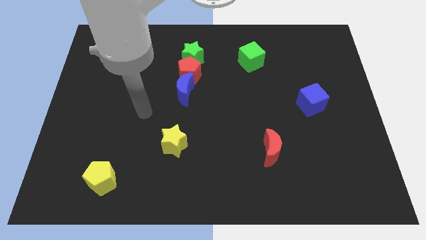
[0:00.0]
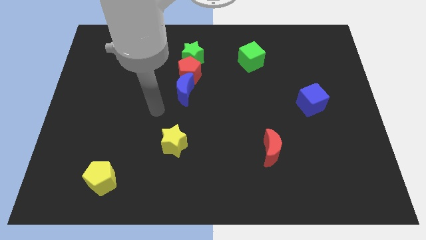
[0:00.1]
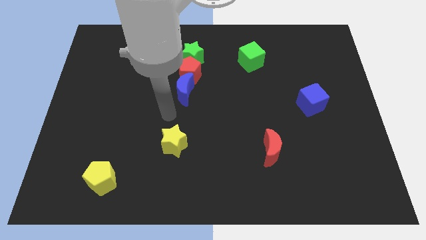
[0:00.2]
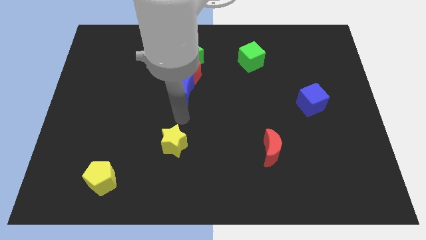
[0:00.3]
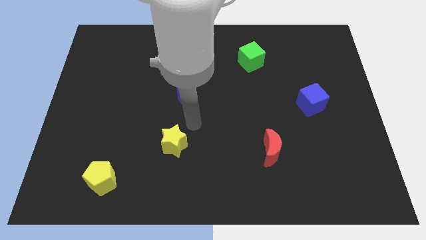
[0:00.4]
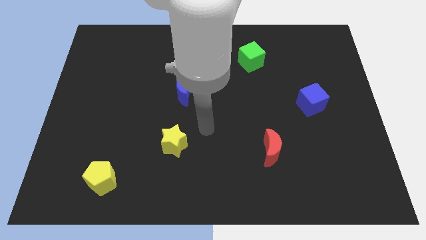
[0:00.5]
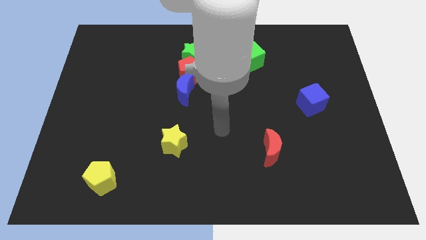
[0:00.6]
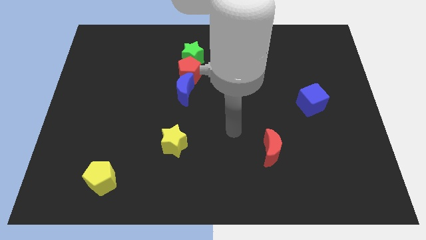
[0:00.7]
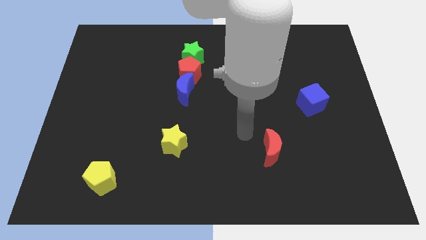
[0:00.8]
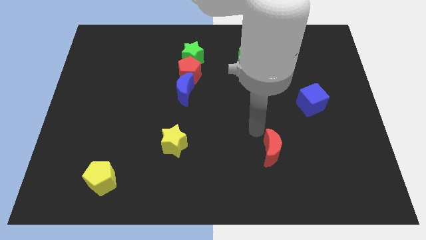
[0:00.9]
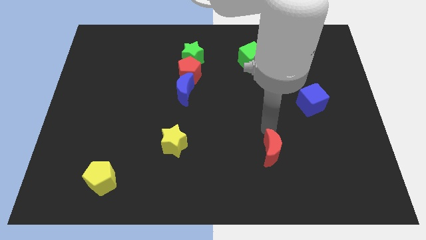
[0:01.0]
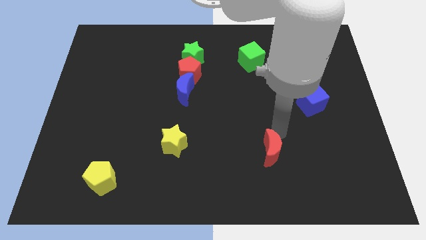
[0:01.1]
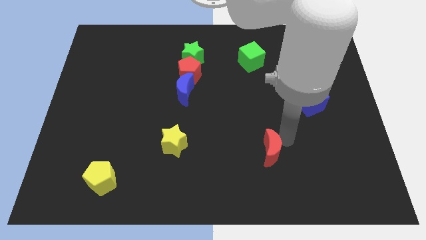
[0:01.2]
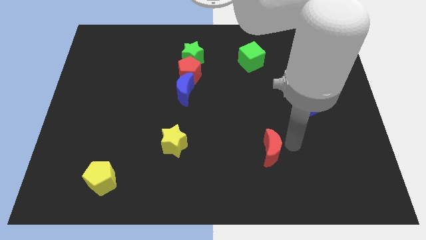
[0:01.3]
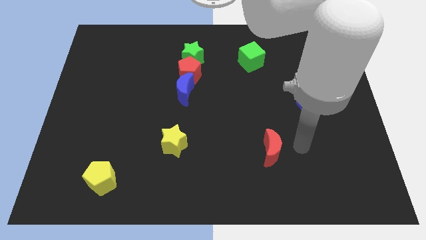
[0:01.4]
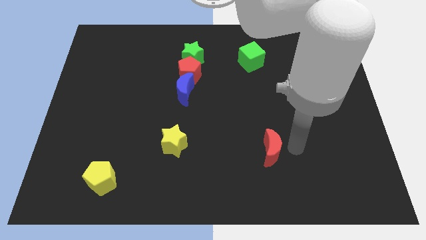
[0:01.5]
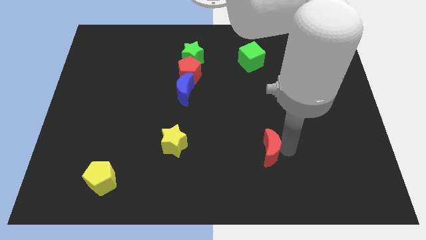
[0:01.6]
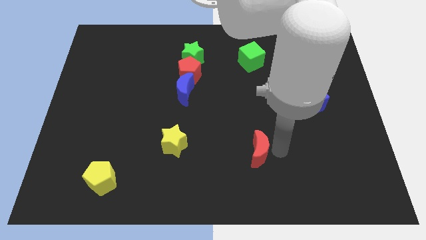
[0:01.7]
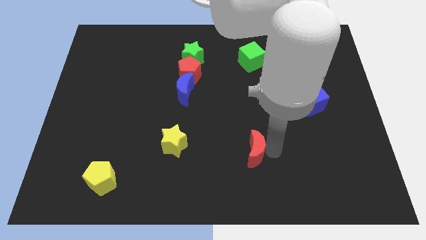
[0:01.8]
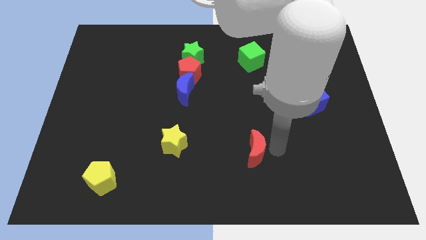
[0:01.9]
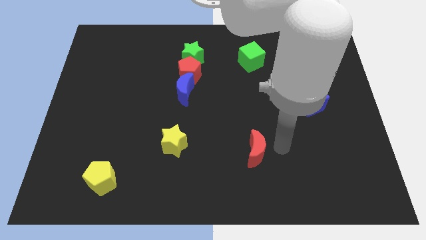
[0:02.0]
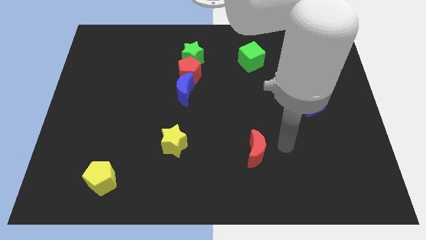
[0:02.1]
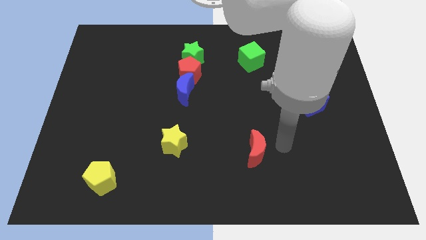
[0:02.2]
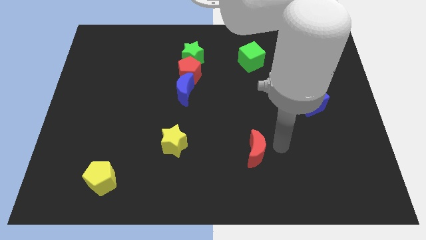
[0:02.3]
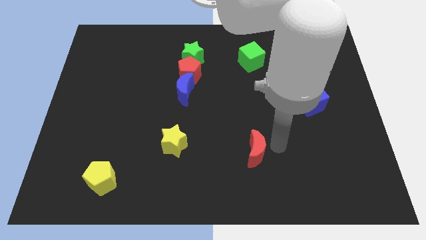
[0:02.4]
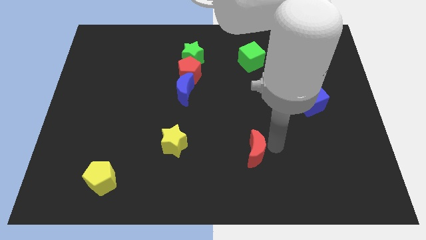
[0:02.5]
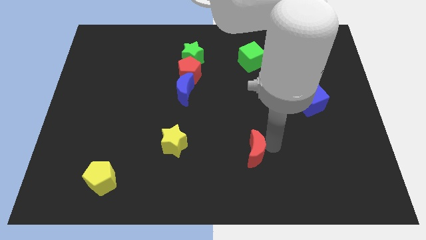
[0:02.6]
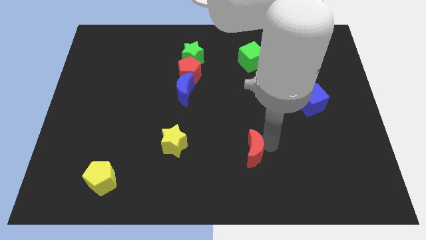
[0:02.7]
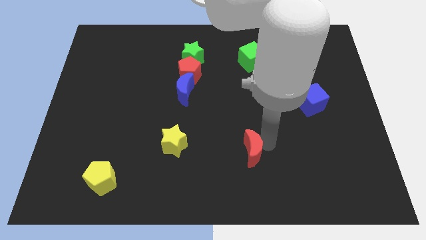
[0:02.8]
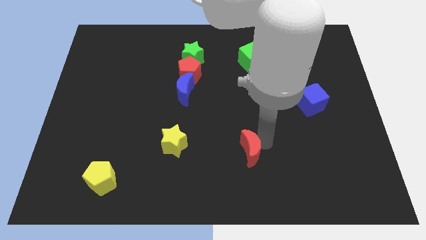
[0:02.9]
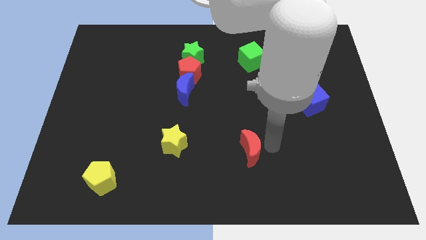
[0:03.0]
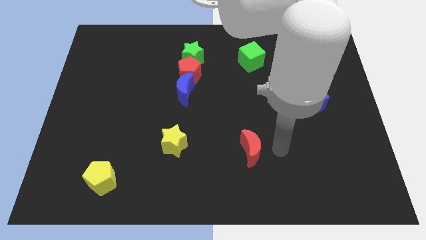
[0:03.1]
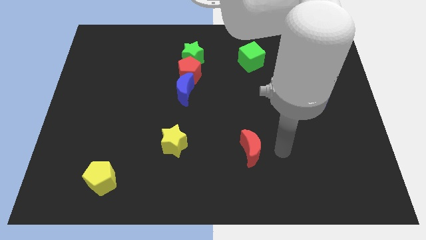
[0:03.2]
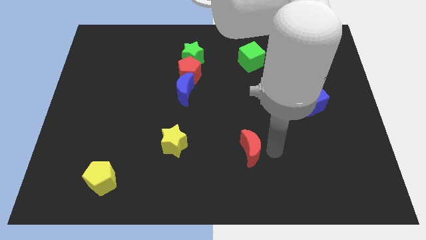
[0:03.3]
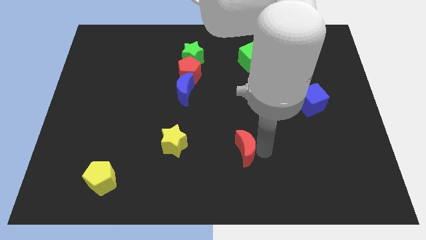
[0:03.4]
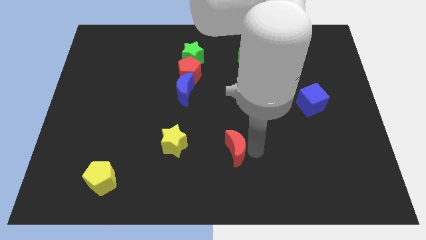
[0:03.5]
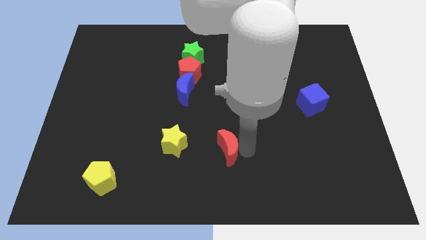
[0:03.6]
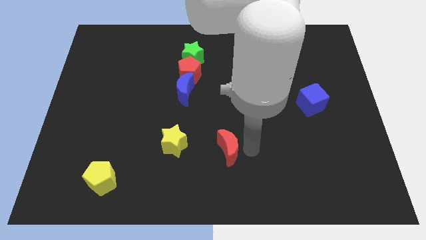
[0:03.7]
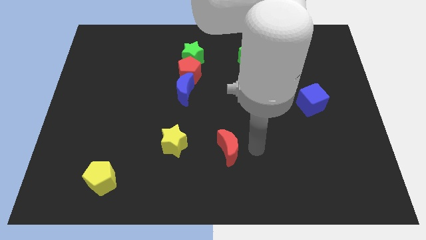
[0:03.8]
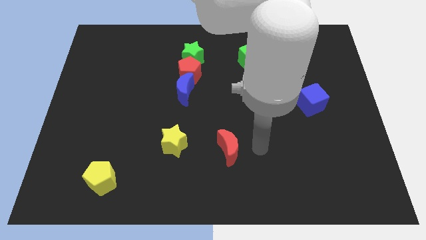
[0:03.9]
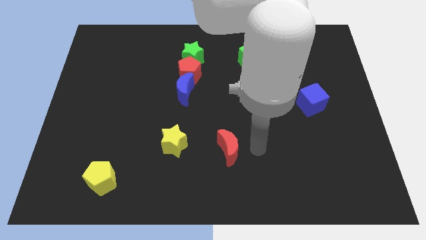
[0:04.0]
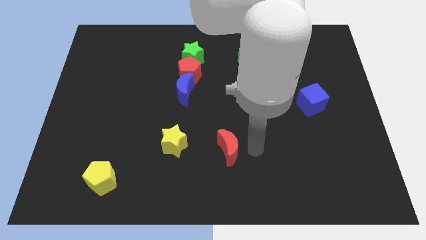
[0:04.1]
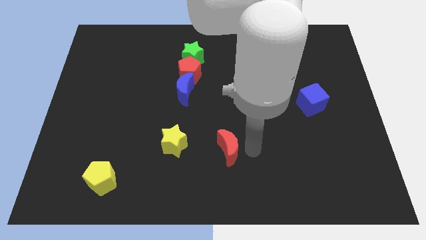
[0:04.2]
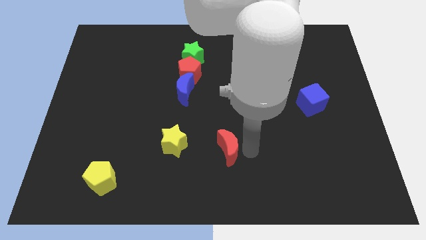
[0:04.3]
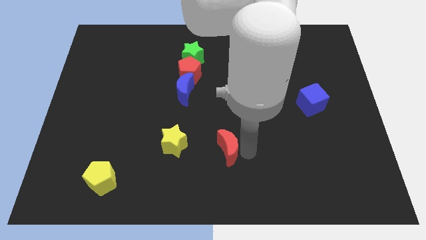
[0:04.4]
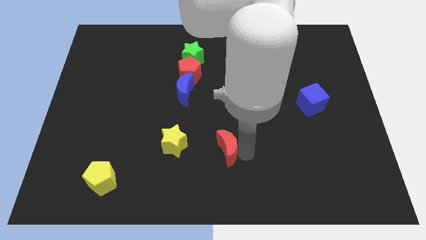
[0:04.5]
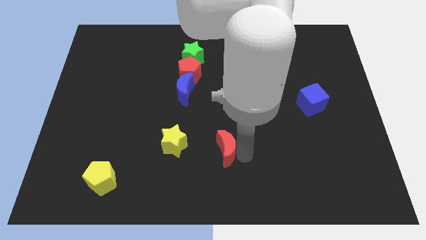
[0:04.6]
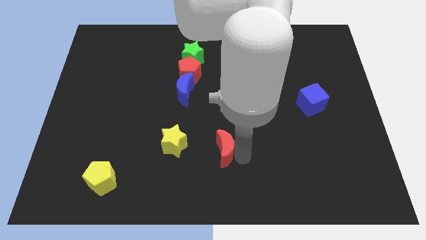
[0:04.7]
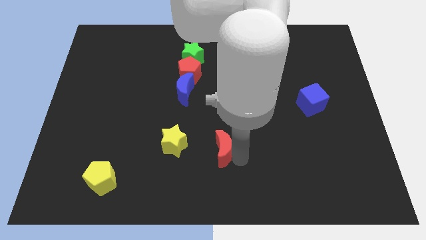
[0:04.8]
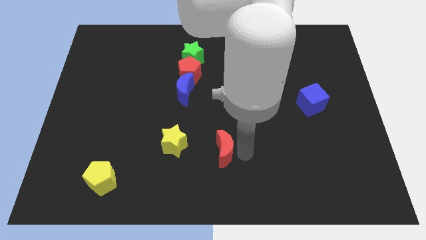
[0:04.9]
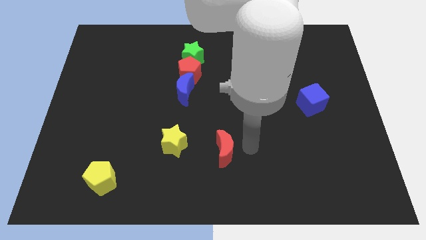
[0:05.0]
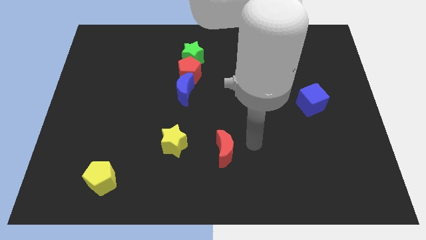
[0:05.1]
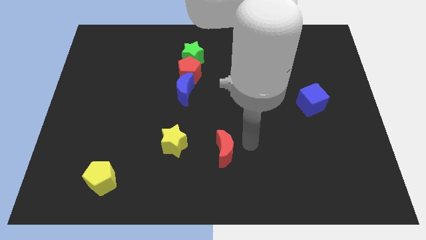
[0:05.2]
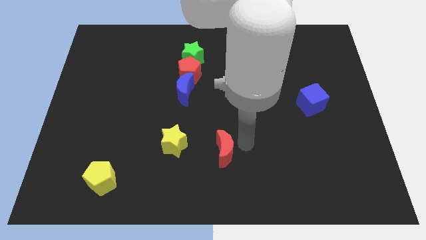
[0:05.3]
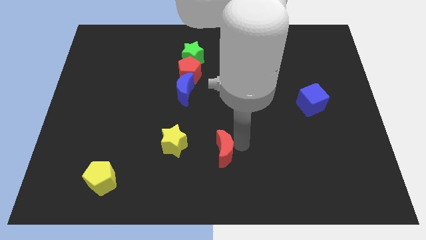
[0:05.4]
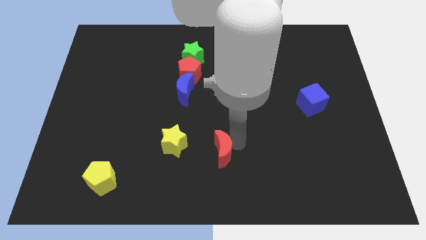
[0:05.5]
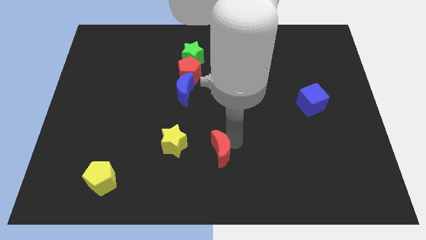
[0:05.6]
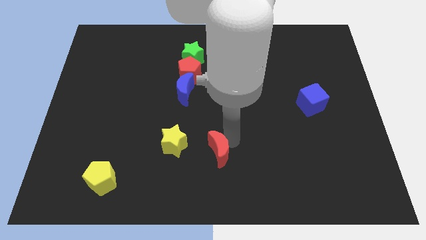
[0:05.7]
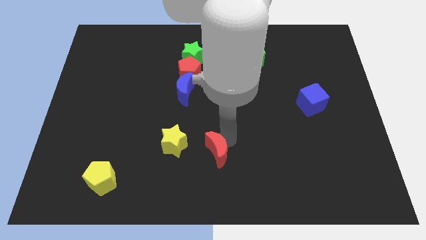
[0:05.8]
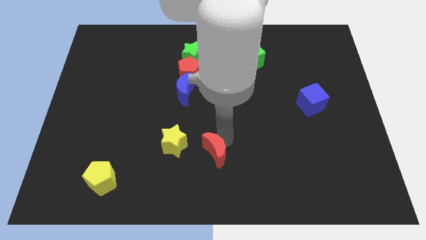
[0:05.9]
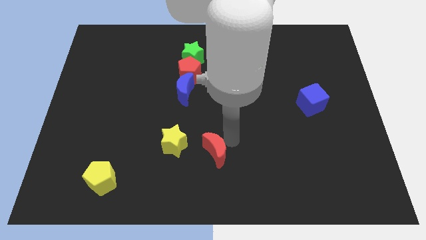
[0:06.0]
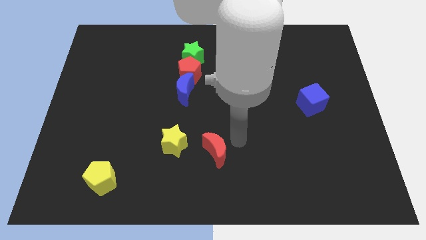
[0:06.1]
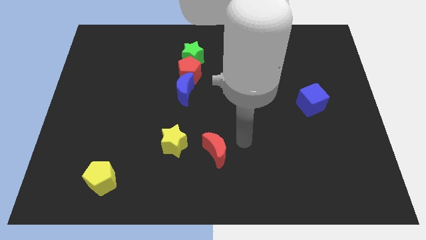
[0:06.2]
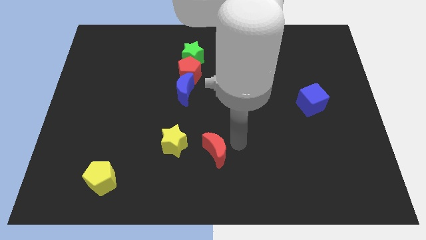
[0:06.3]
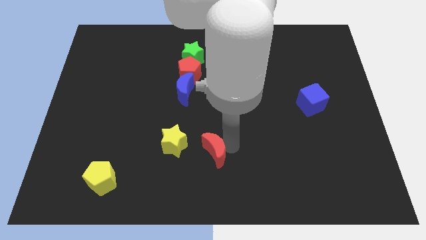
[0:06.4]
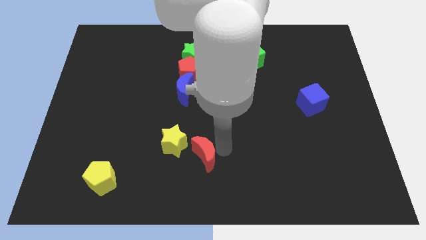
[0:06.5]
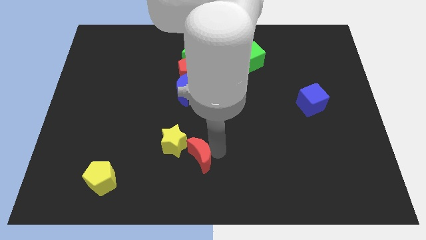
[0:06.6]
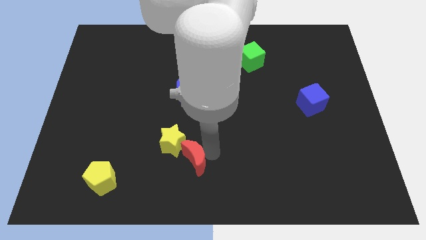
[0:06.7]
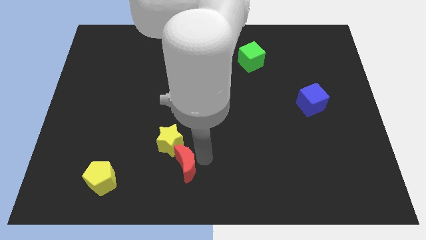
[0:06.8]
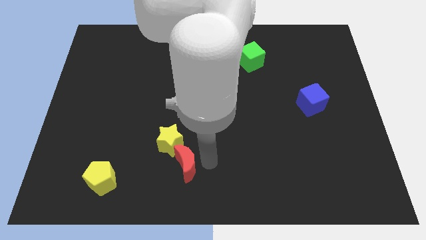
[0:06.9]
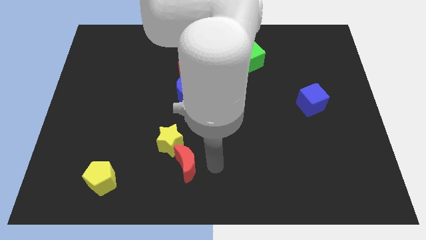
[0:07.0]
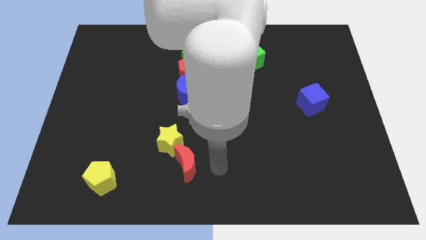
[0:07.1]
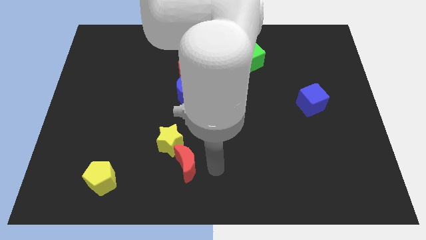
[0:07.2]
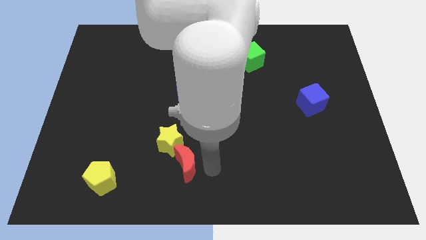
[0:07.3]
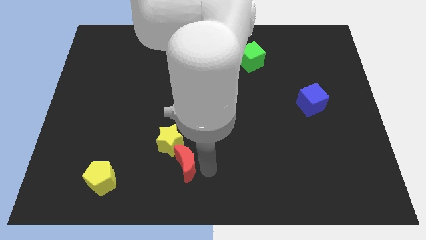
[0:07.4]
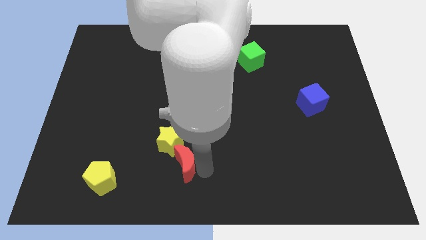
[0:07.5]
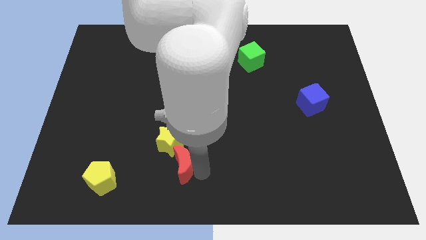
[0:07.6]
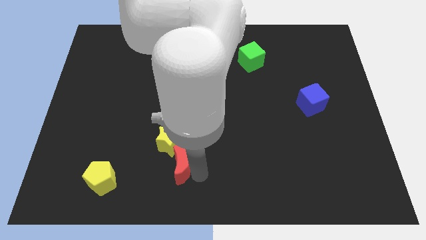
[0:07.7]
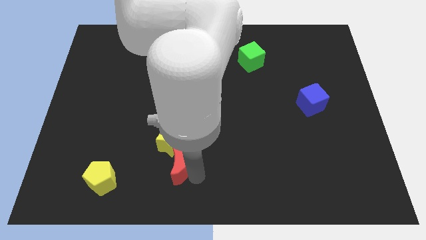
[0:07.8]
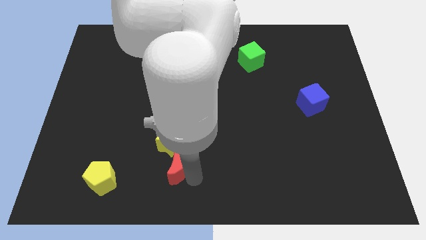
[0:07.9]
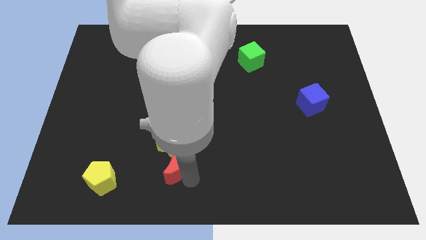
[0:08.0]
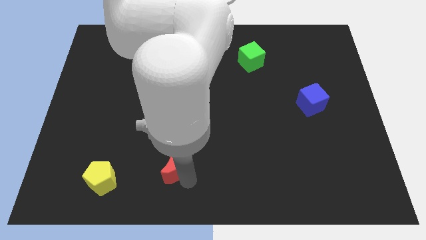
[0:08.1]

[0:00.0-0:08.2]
push the red moon to the left

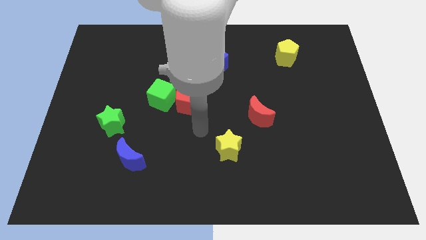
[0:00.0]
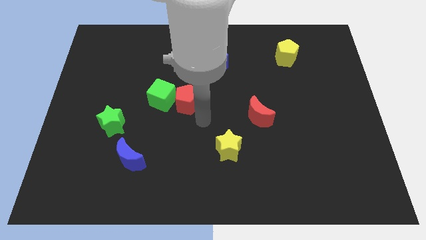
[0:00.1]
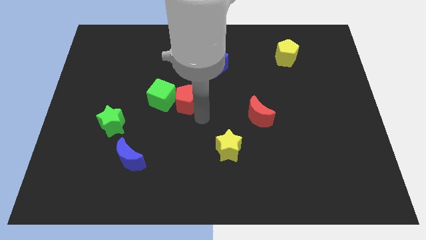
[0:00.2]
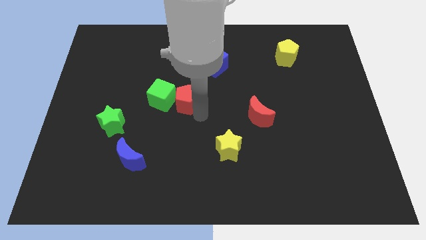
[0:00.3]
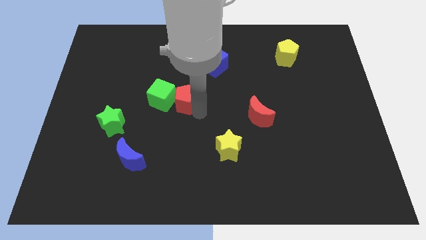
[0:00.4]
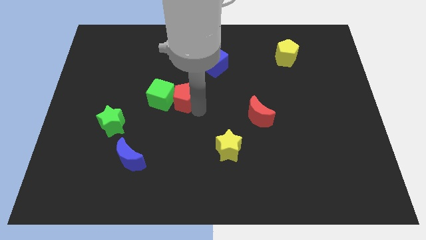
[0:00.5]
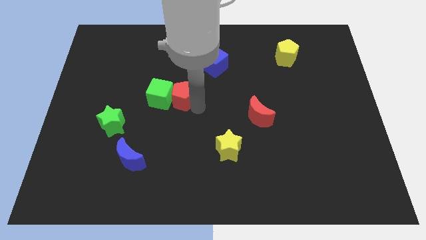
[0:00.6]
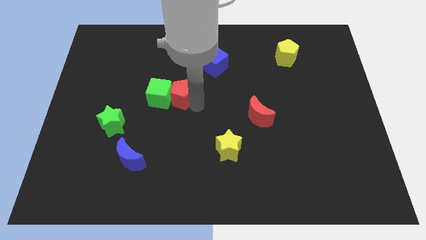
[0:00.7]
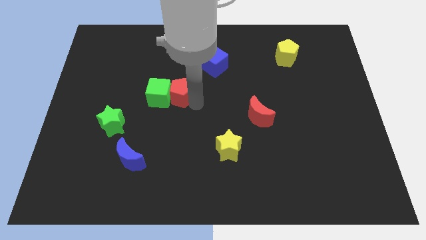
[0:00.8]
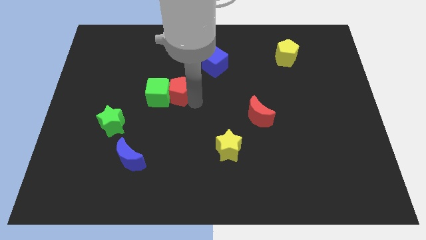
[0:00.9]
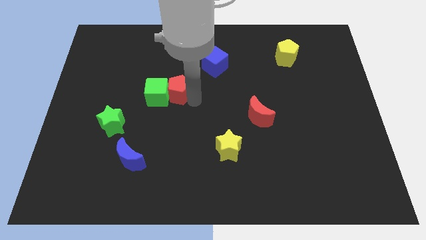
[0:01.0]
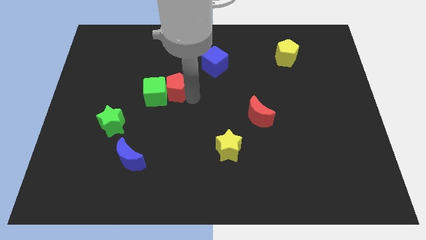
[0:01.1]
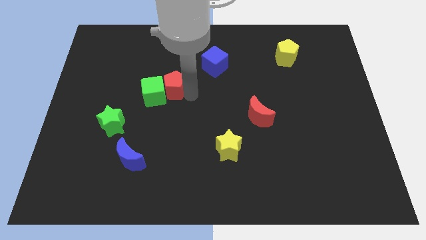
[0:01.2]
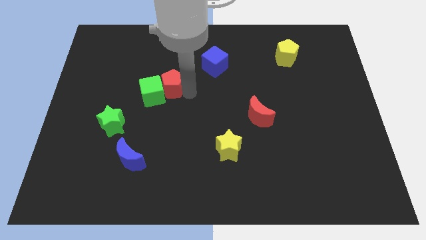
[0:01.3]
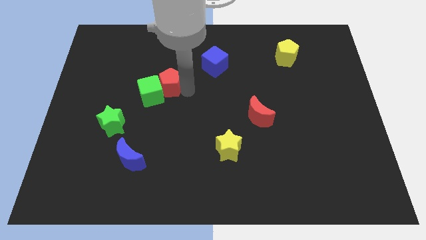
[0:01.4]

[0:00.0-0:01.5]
slightly move the red pentagon up and then to the left
